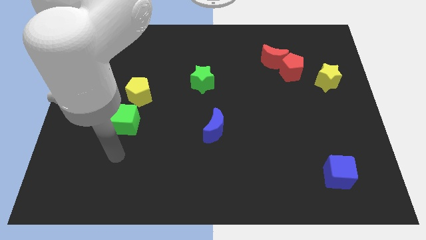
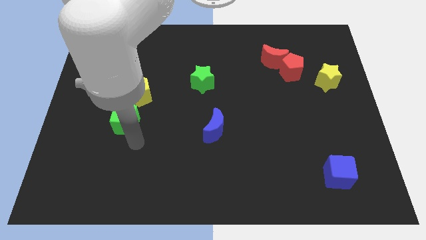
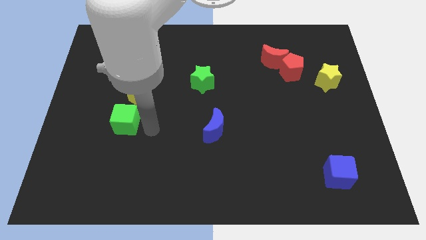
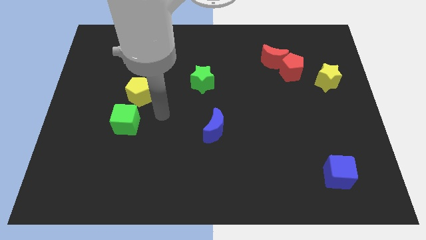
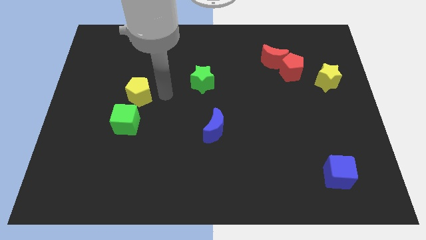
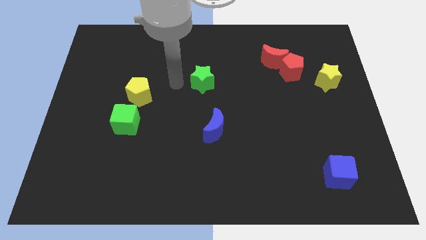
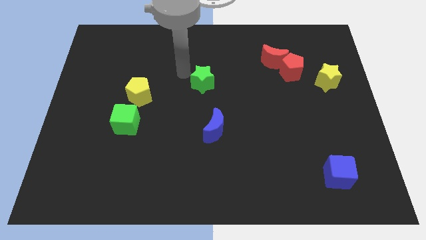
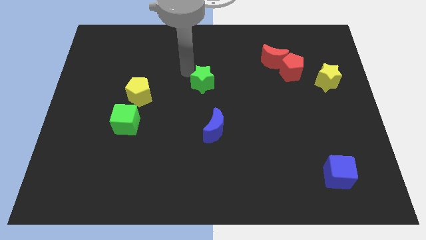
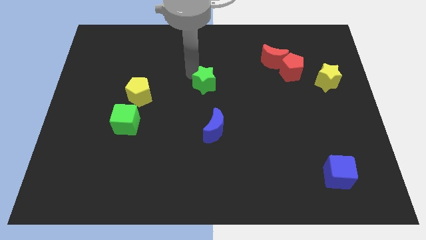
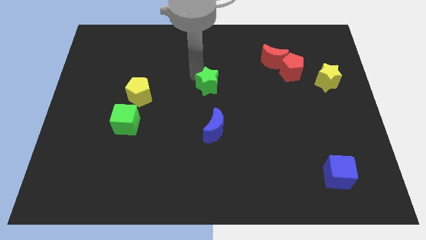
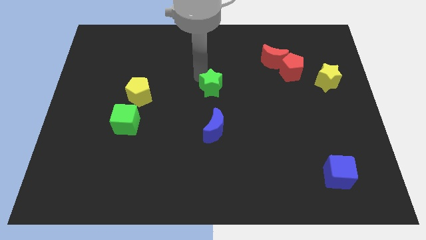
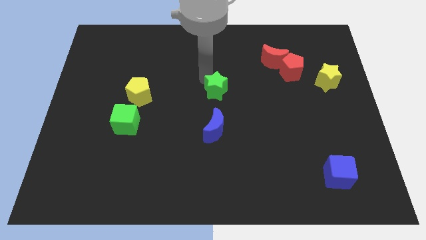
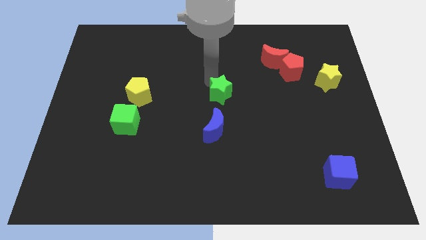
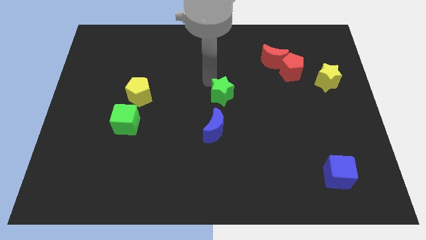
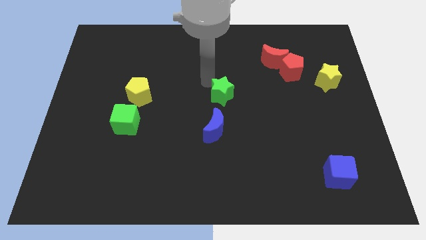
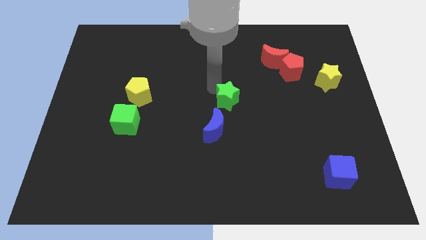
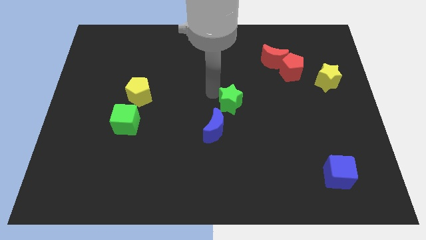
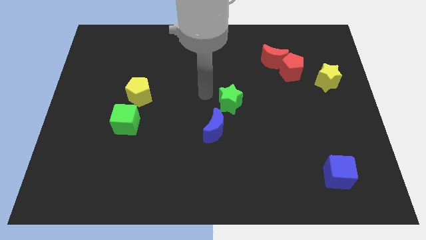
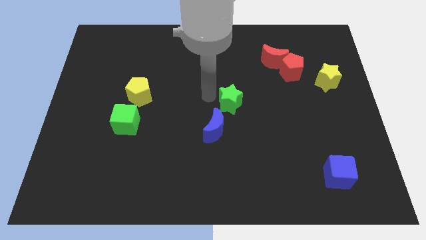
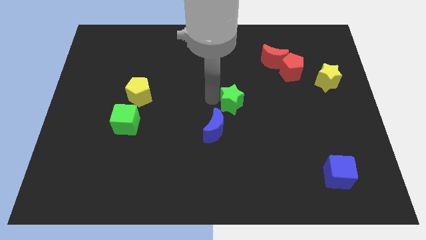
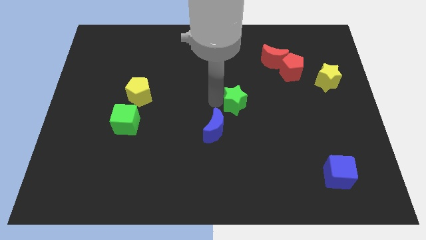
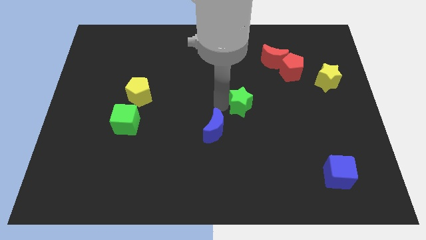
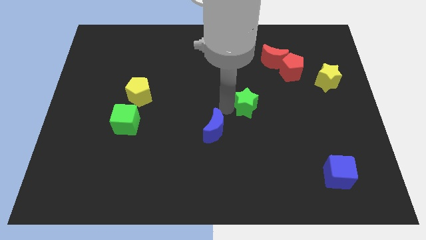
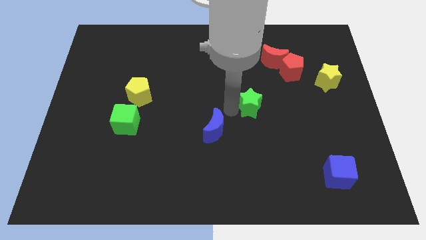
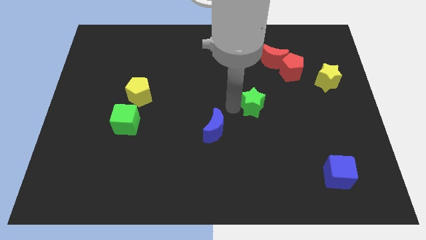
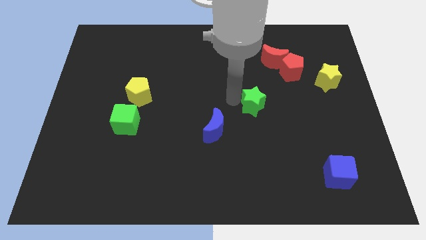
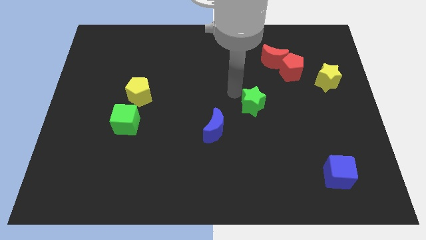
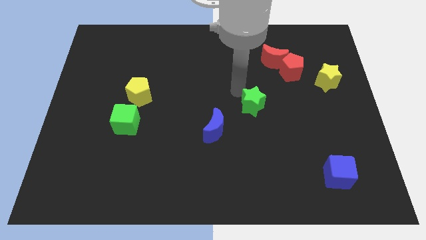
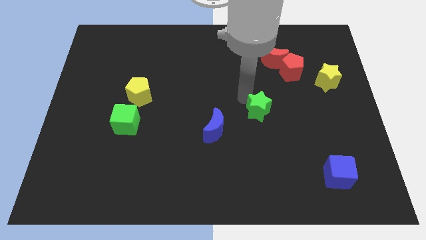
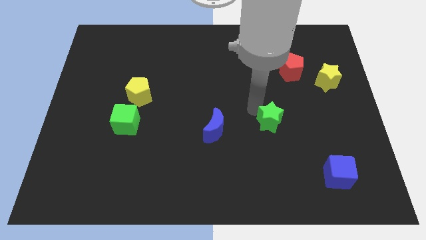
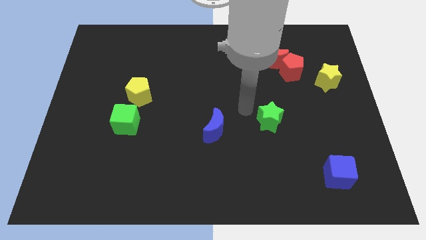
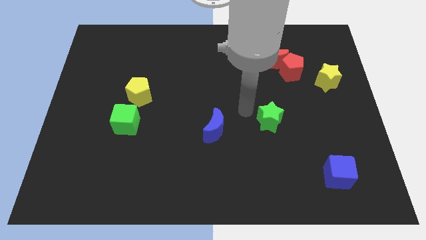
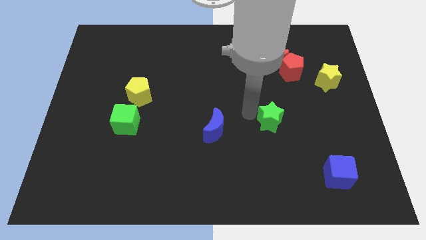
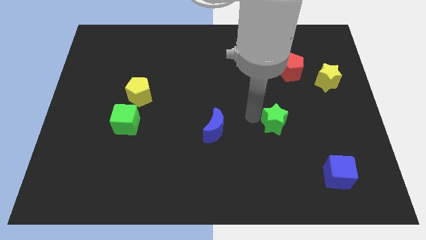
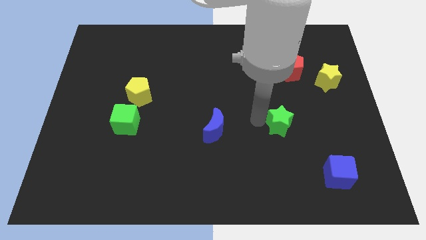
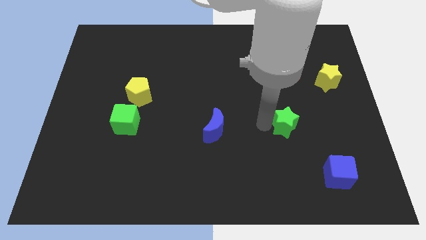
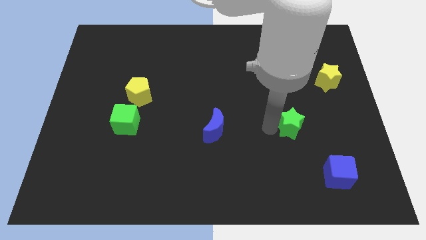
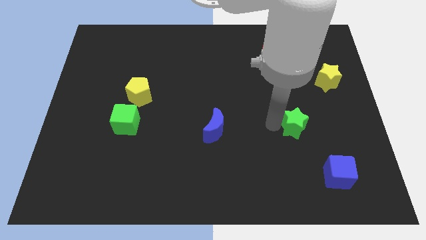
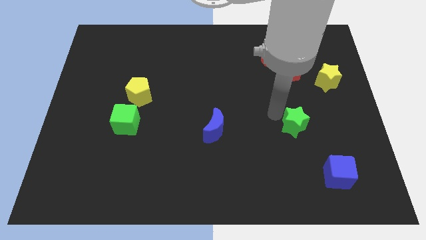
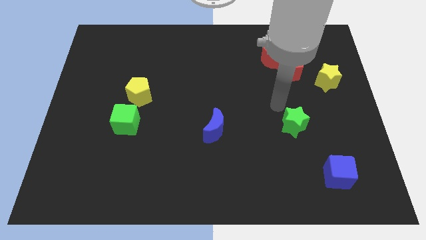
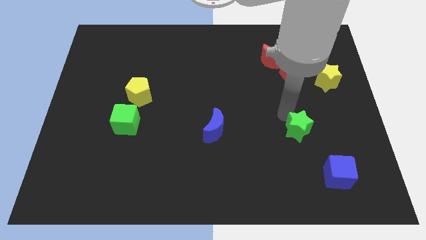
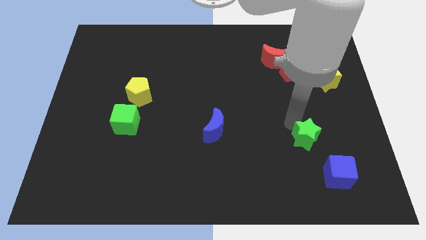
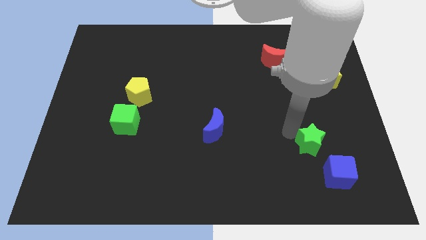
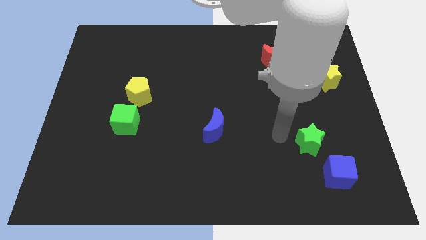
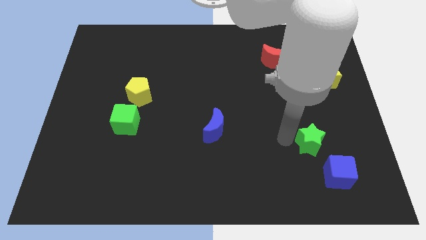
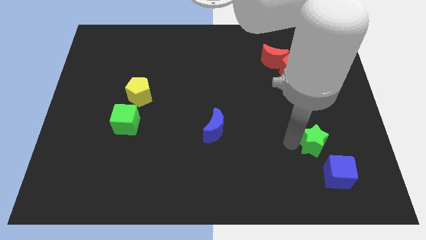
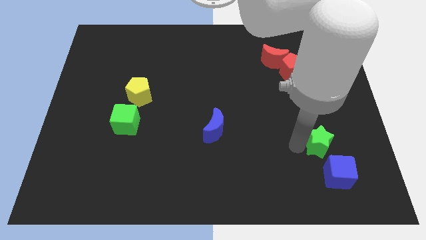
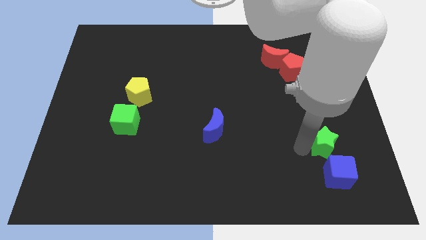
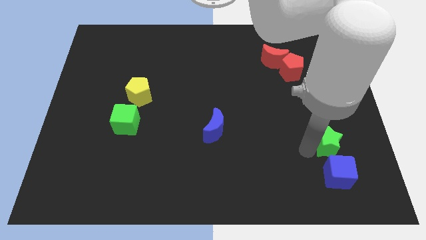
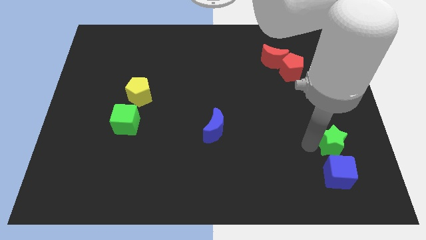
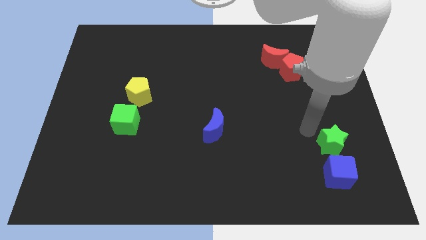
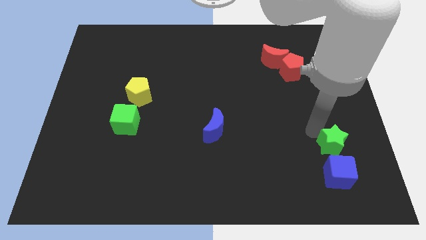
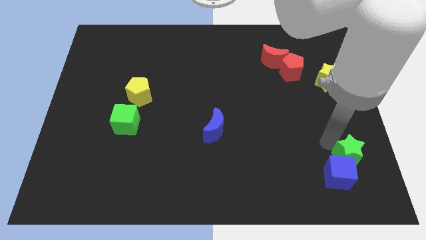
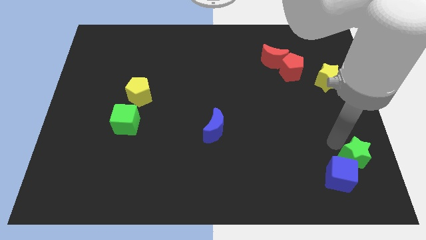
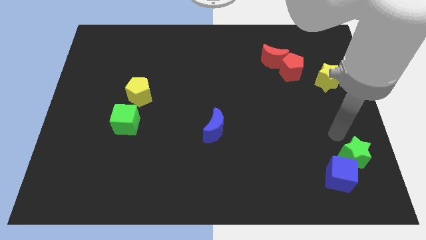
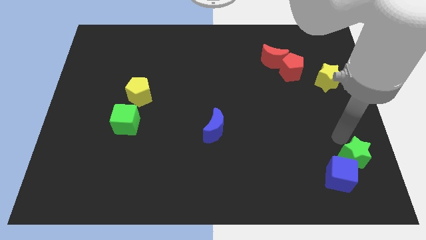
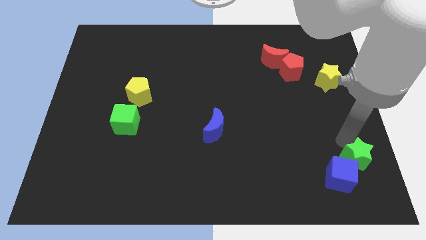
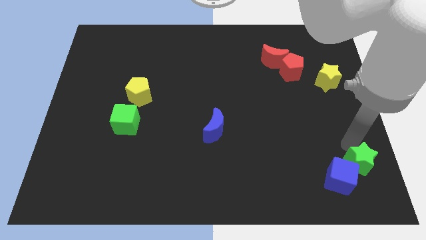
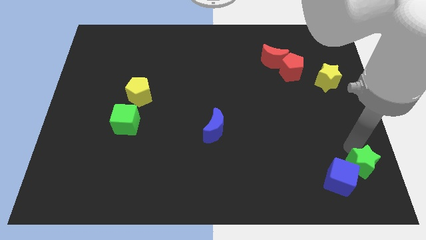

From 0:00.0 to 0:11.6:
slide the green star to the bottom right
